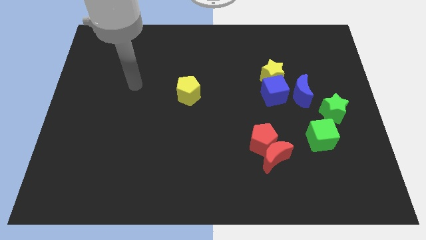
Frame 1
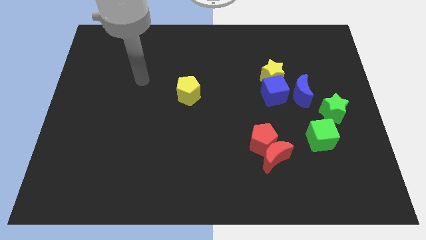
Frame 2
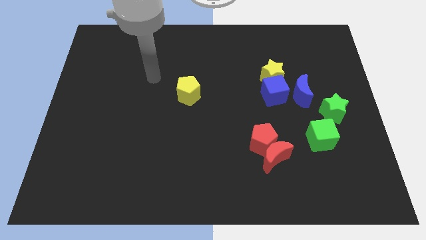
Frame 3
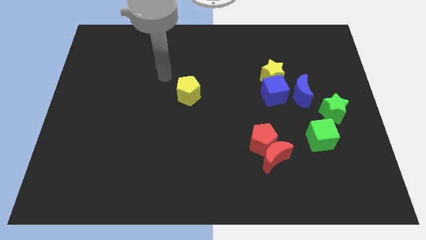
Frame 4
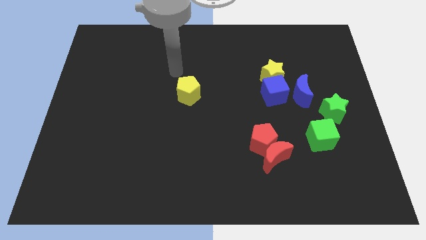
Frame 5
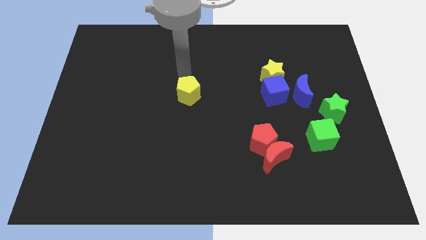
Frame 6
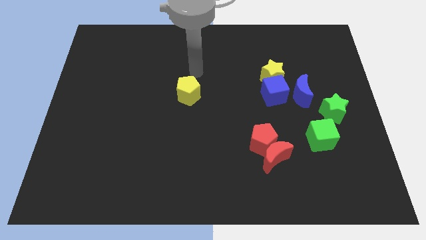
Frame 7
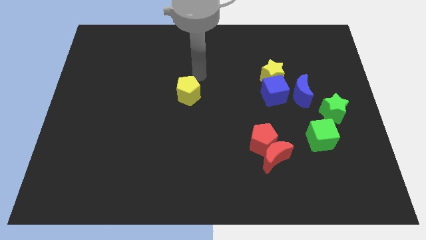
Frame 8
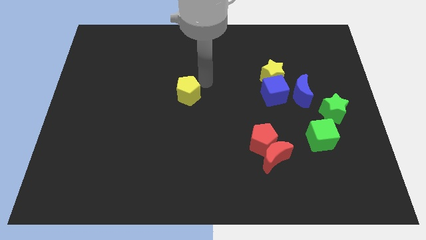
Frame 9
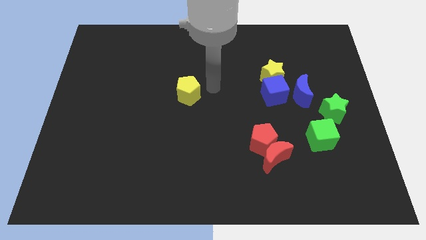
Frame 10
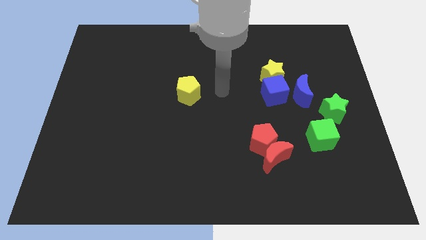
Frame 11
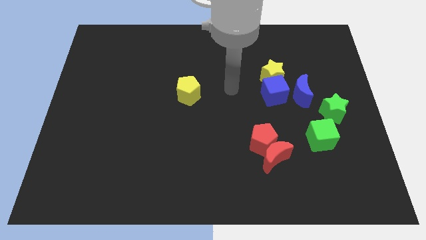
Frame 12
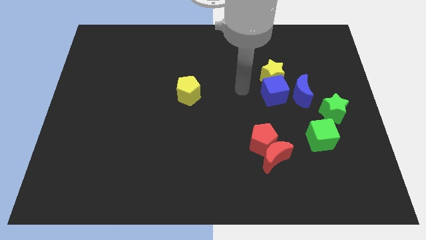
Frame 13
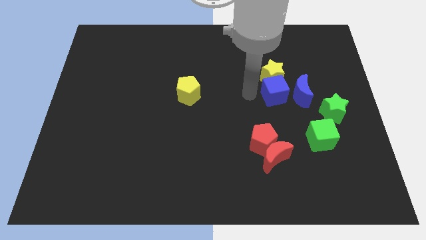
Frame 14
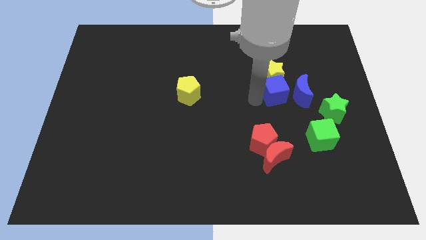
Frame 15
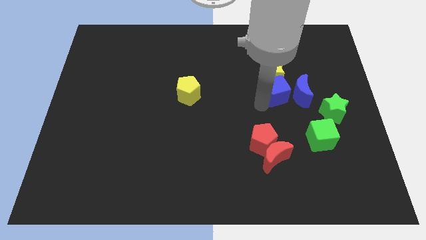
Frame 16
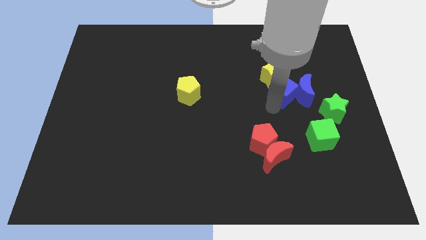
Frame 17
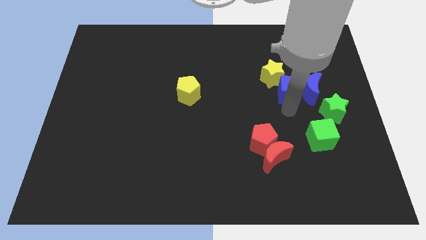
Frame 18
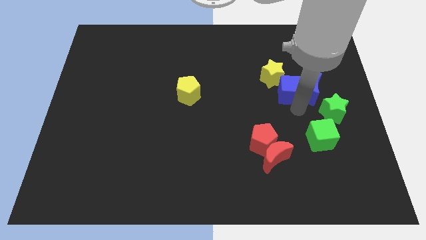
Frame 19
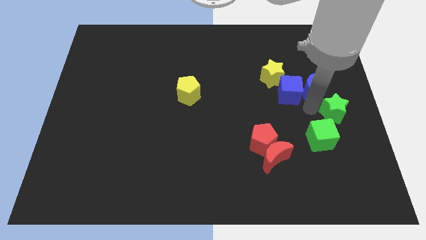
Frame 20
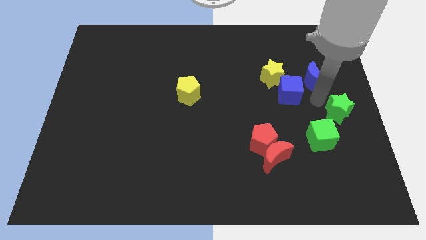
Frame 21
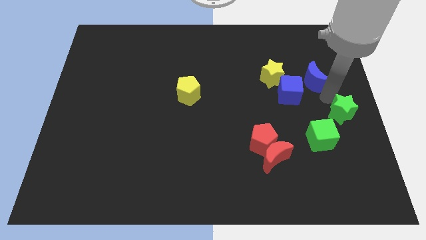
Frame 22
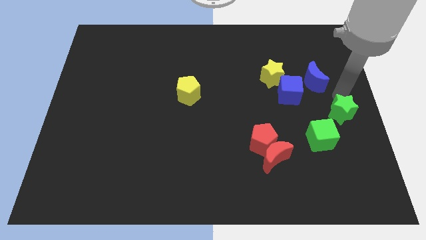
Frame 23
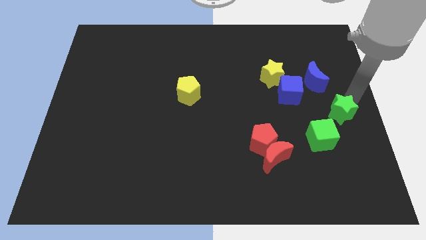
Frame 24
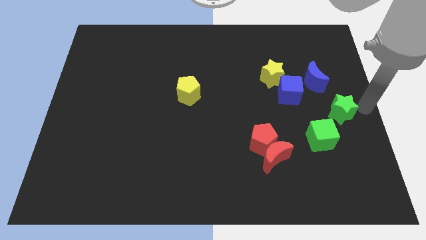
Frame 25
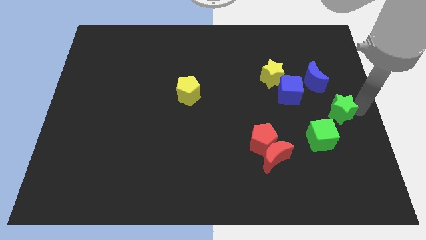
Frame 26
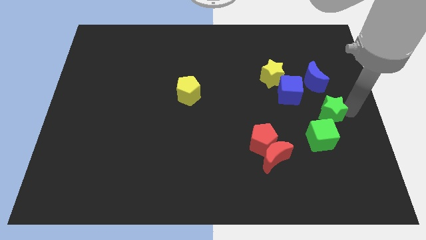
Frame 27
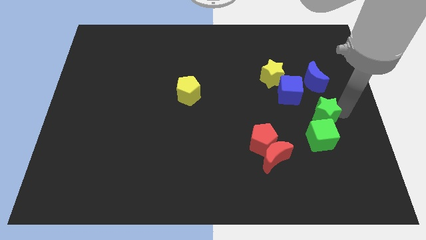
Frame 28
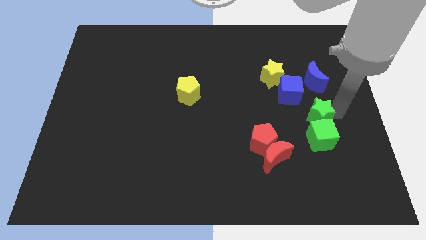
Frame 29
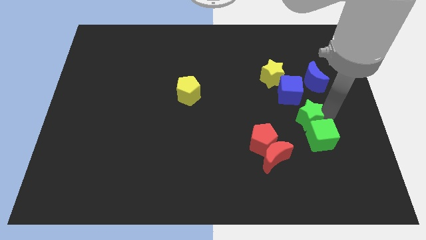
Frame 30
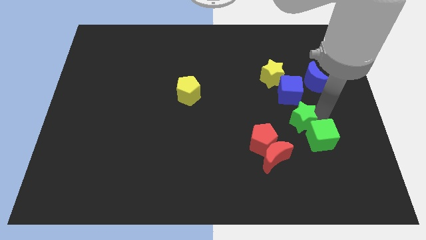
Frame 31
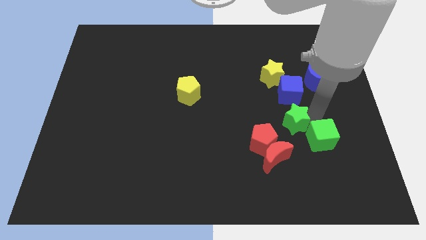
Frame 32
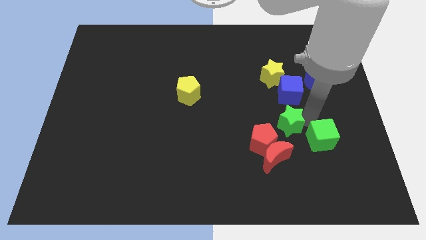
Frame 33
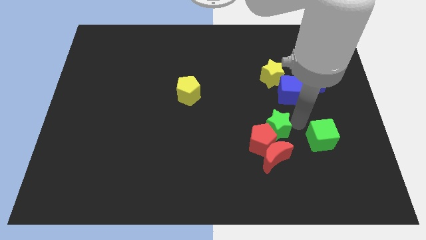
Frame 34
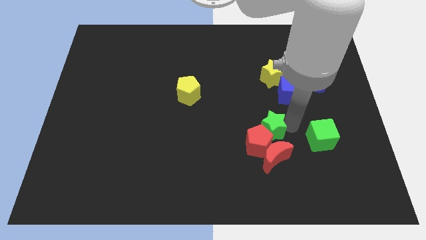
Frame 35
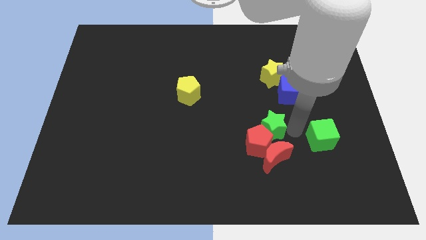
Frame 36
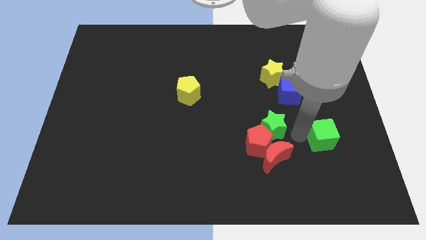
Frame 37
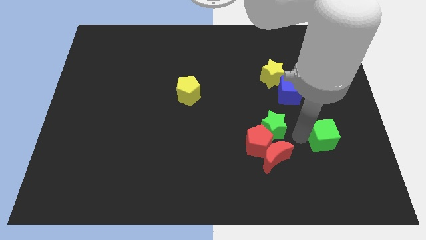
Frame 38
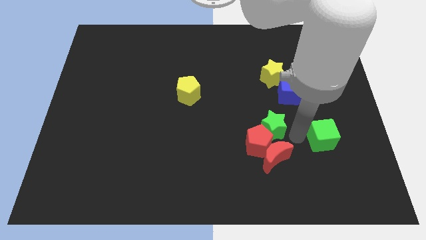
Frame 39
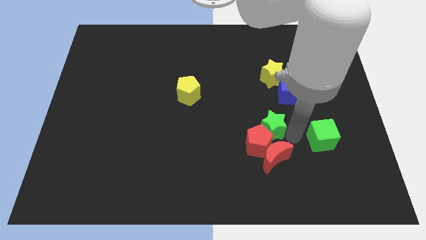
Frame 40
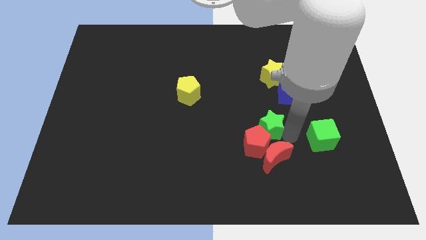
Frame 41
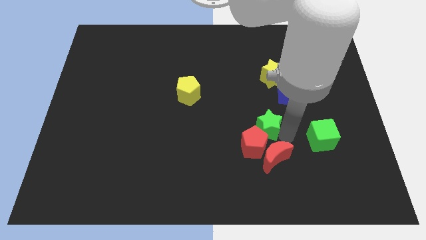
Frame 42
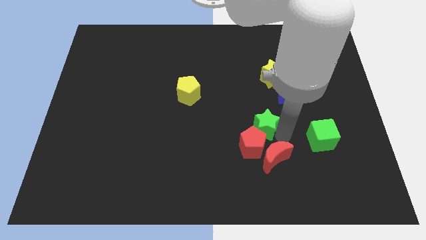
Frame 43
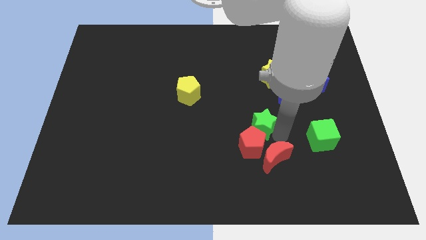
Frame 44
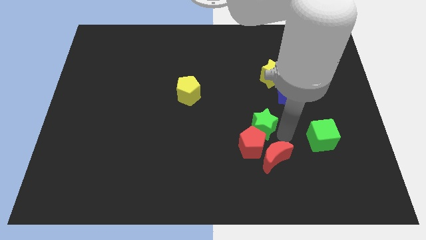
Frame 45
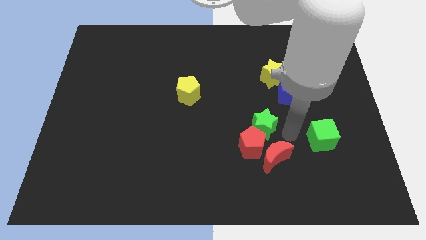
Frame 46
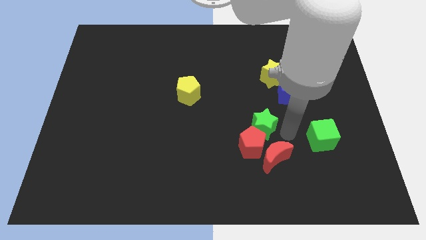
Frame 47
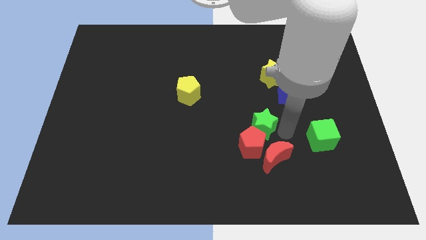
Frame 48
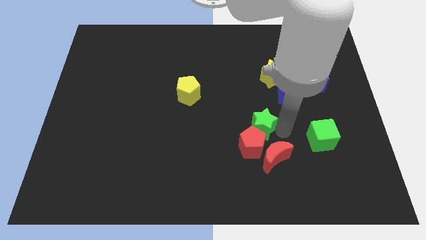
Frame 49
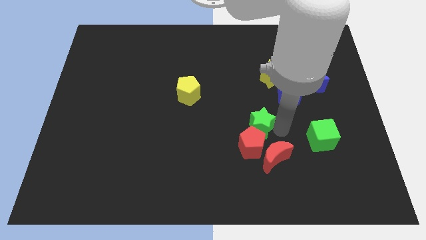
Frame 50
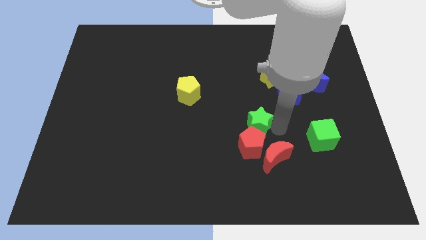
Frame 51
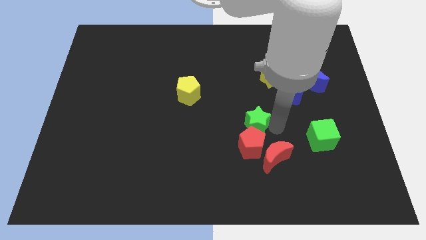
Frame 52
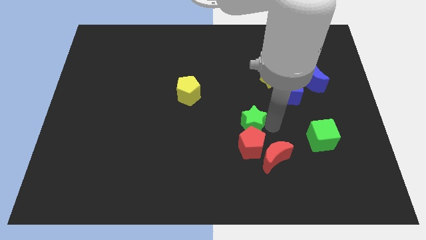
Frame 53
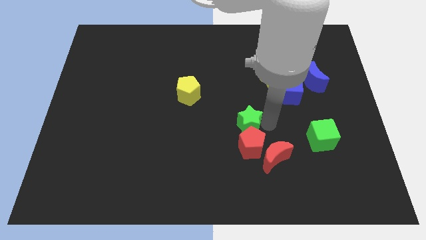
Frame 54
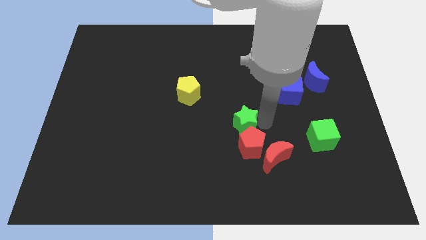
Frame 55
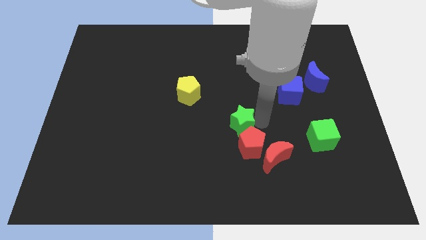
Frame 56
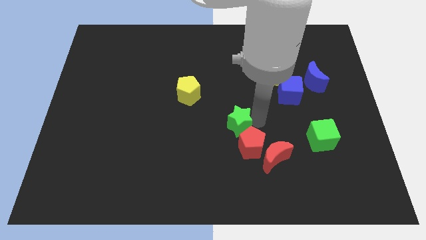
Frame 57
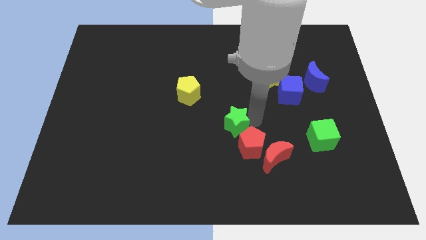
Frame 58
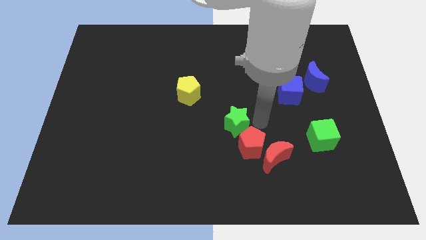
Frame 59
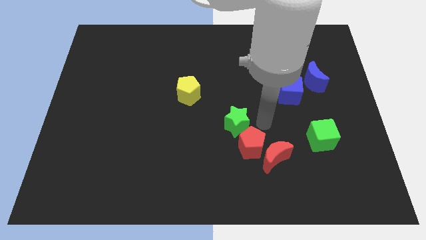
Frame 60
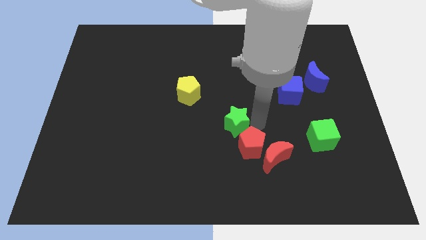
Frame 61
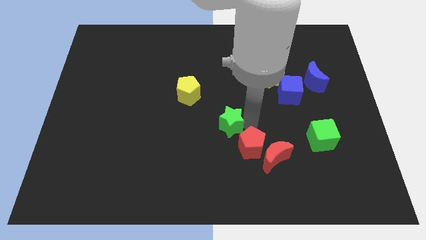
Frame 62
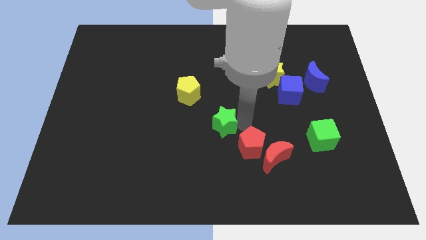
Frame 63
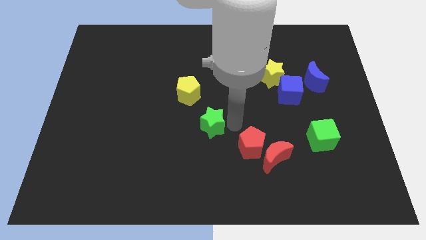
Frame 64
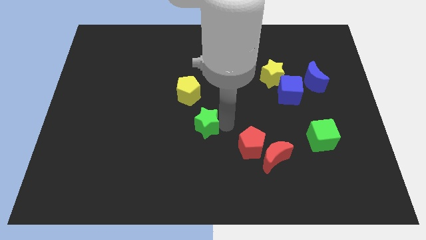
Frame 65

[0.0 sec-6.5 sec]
move the green star to the bottom of the yellow pentagon

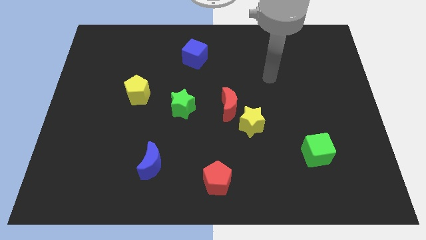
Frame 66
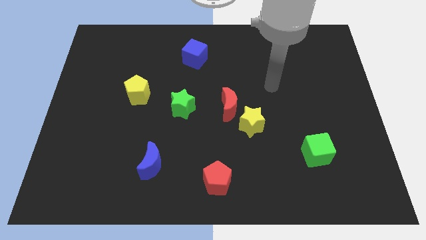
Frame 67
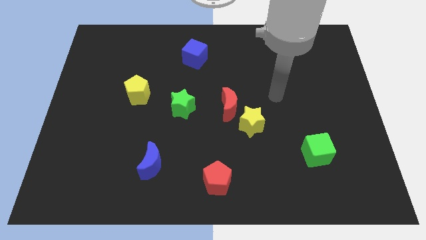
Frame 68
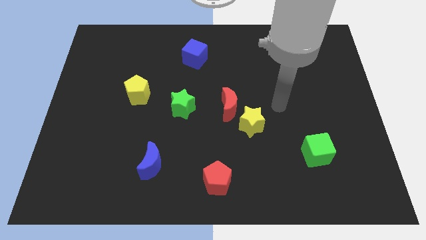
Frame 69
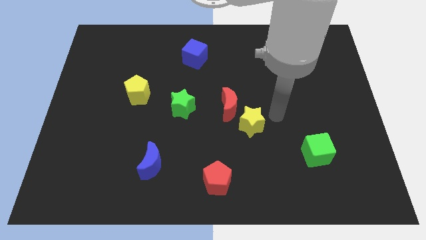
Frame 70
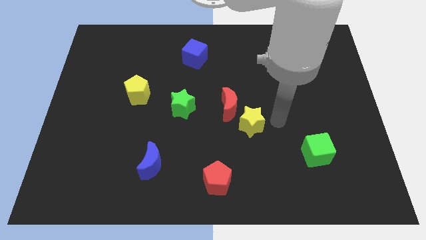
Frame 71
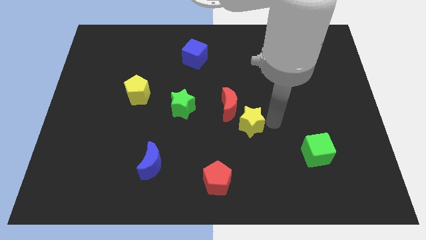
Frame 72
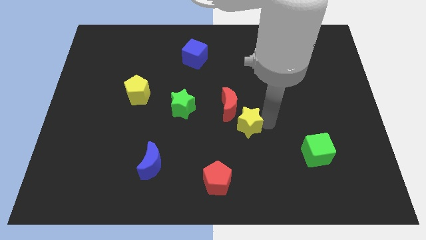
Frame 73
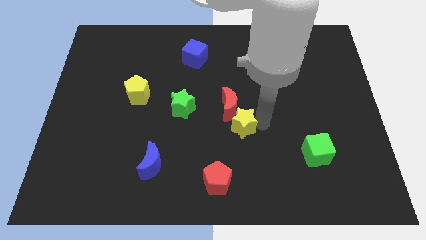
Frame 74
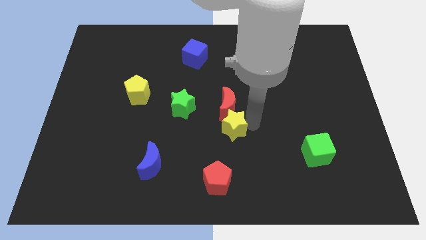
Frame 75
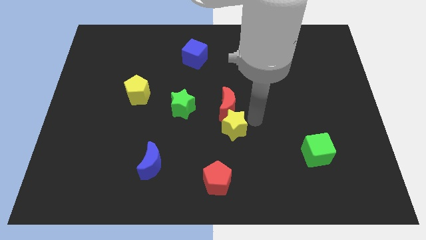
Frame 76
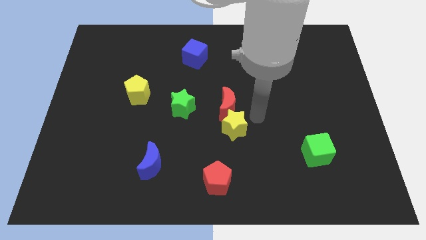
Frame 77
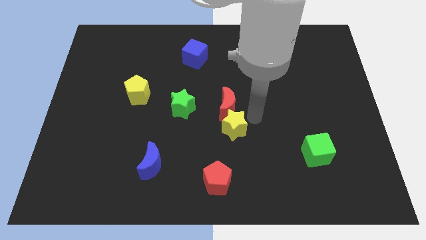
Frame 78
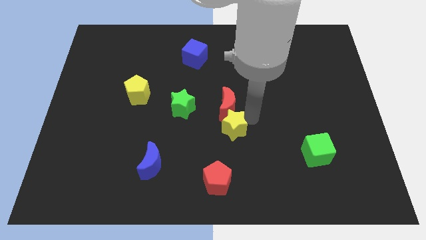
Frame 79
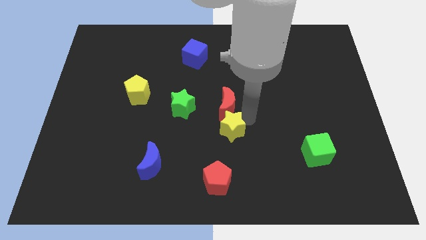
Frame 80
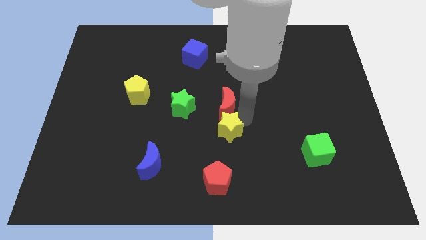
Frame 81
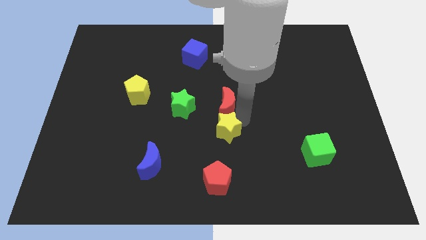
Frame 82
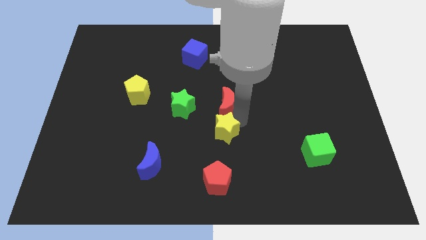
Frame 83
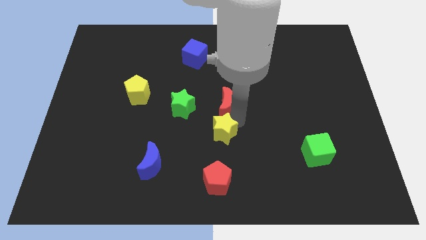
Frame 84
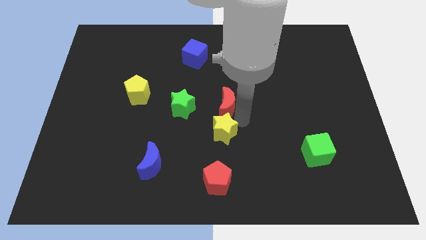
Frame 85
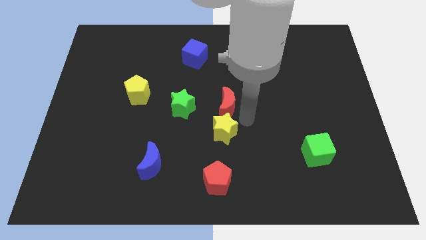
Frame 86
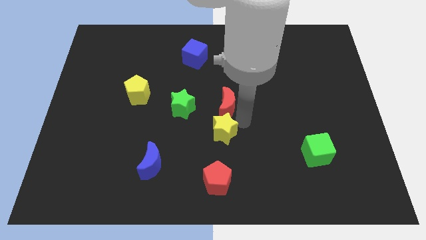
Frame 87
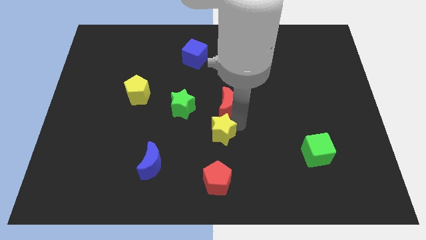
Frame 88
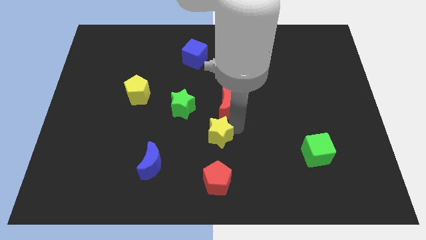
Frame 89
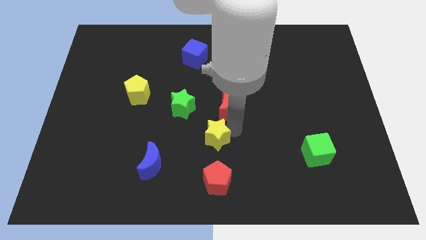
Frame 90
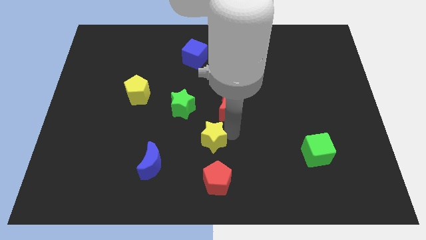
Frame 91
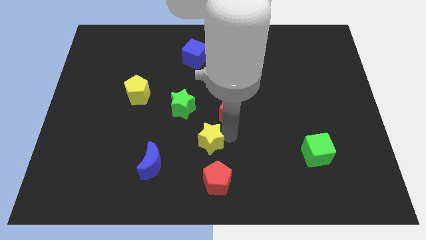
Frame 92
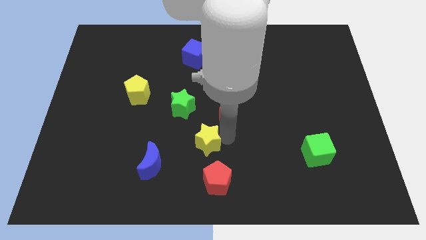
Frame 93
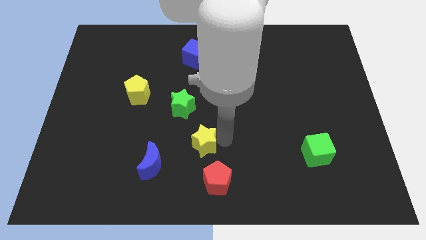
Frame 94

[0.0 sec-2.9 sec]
put the yellow star to the top right side of the blue moon
